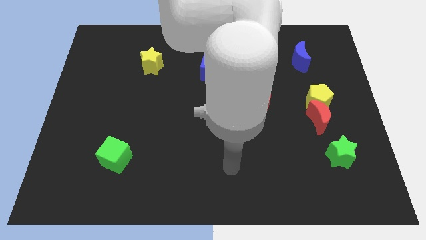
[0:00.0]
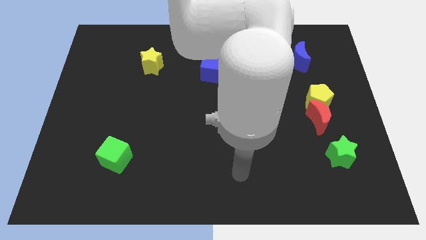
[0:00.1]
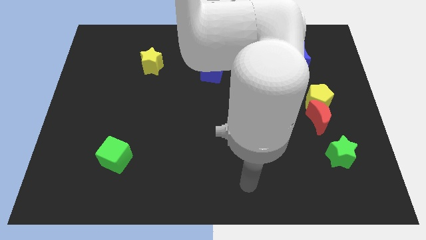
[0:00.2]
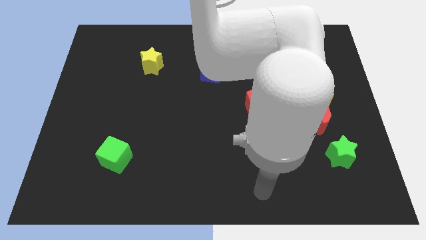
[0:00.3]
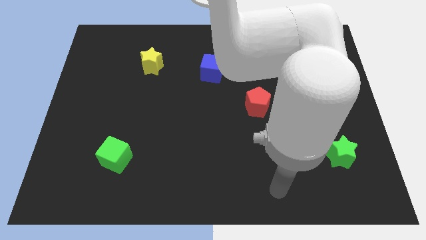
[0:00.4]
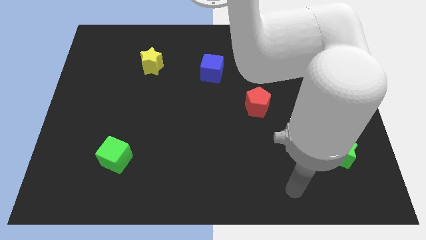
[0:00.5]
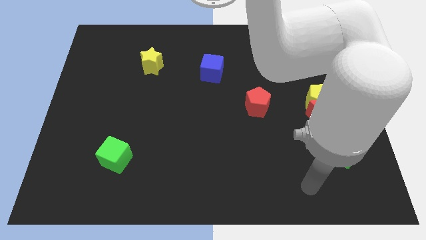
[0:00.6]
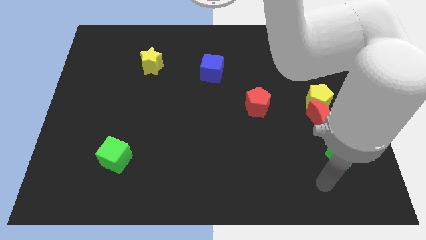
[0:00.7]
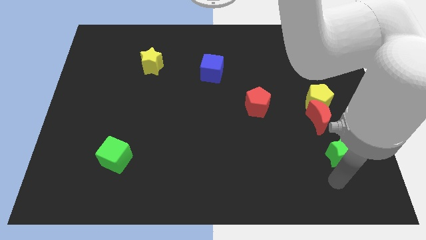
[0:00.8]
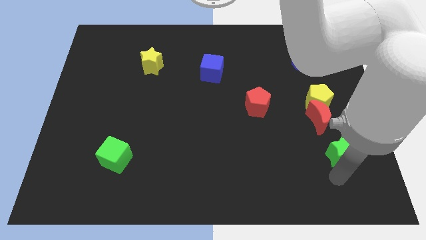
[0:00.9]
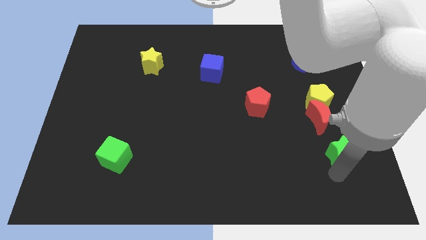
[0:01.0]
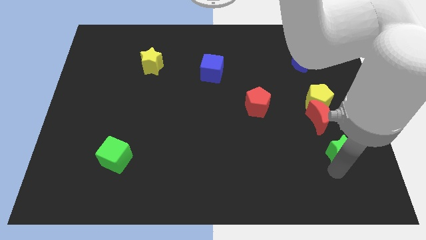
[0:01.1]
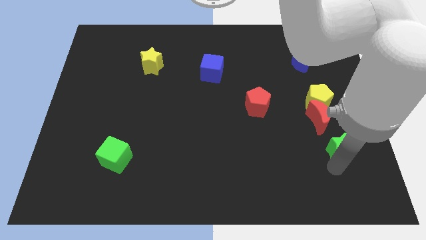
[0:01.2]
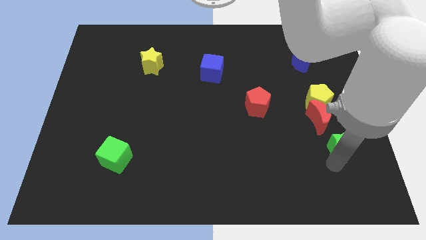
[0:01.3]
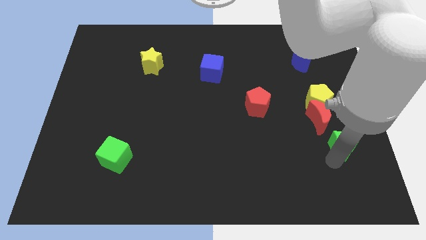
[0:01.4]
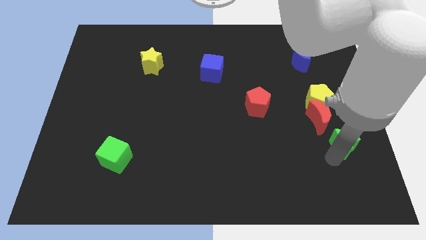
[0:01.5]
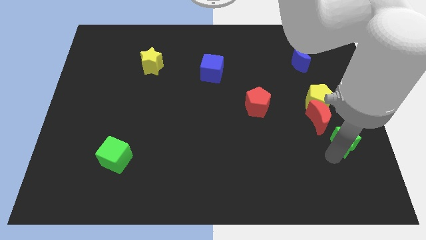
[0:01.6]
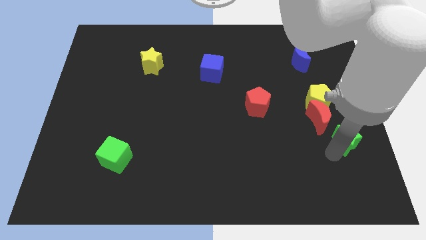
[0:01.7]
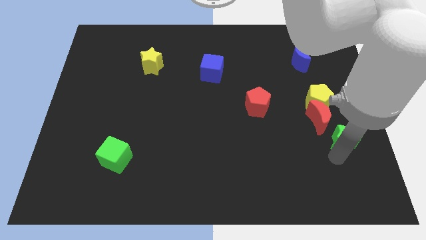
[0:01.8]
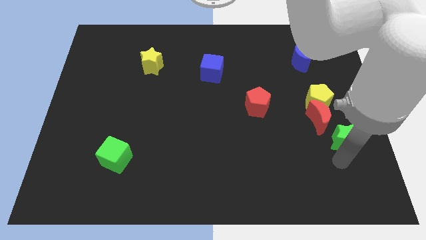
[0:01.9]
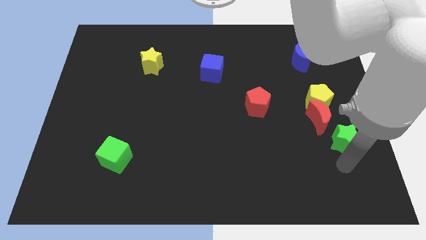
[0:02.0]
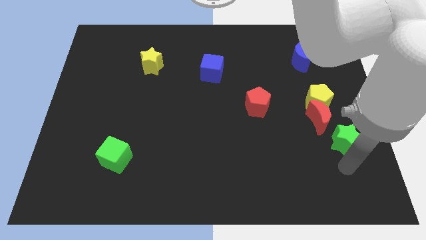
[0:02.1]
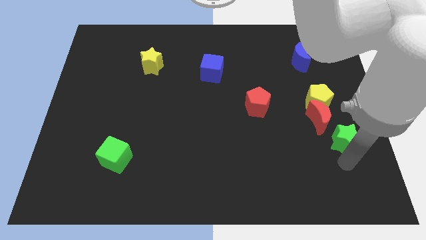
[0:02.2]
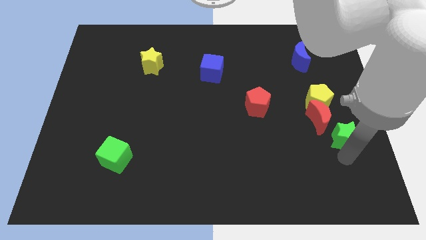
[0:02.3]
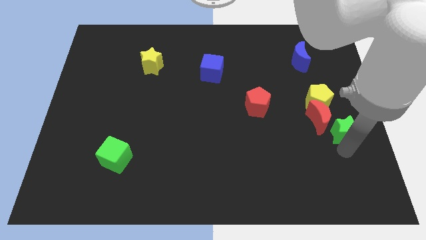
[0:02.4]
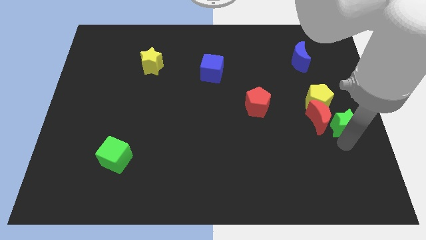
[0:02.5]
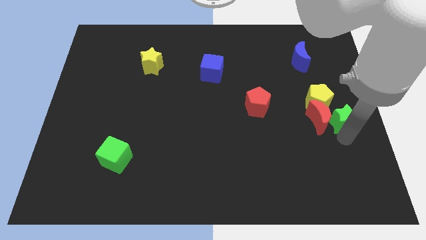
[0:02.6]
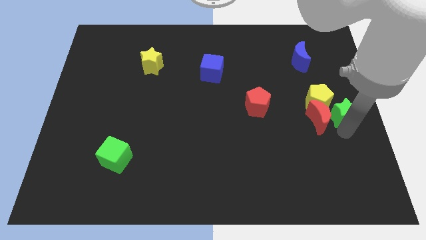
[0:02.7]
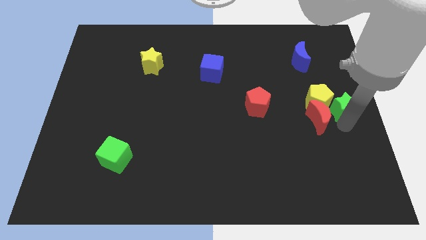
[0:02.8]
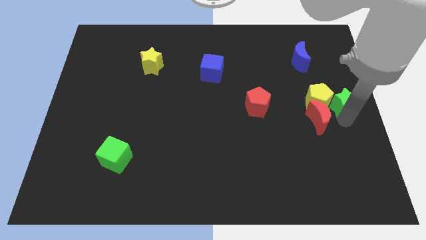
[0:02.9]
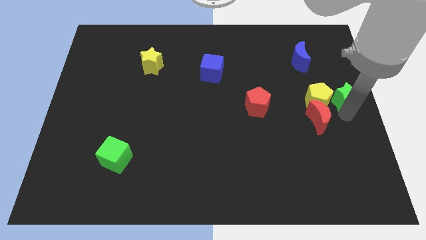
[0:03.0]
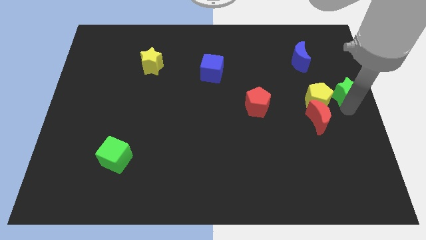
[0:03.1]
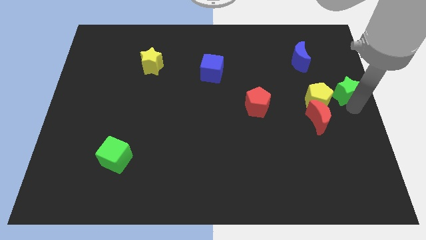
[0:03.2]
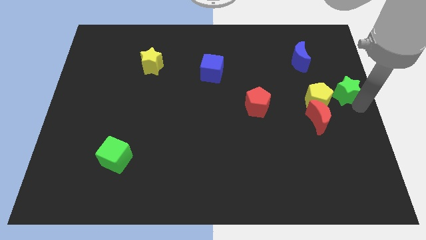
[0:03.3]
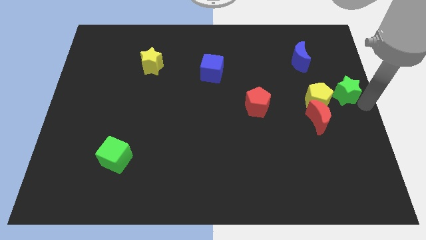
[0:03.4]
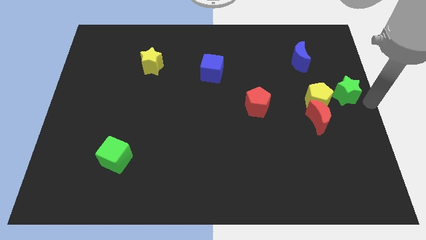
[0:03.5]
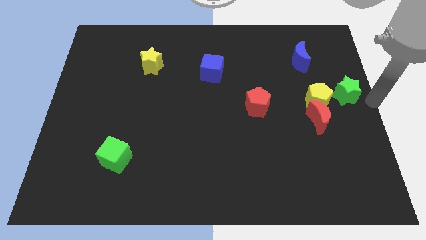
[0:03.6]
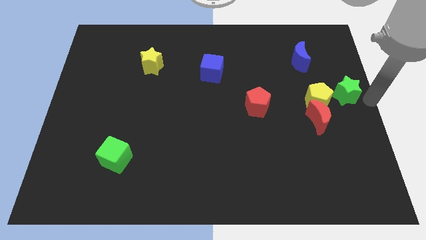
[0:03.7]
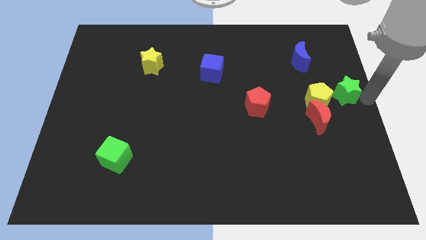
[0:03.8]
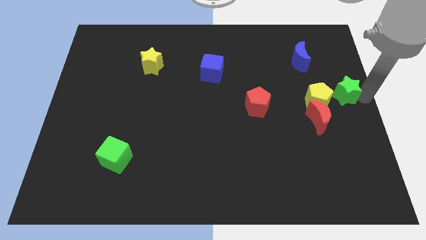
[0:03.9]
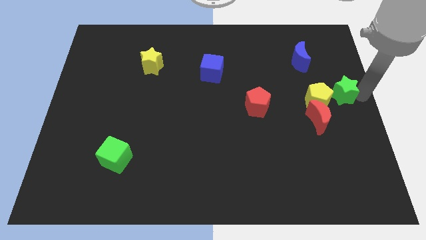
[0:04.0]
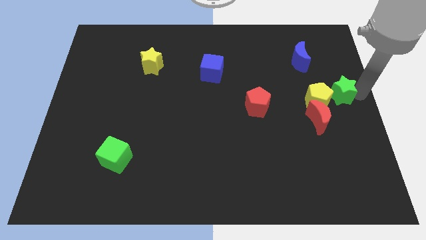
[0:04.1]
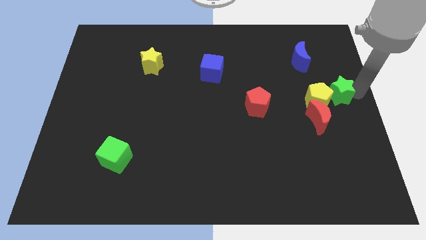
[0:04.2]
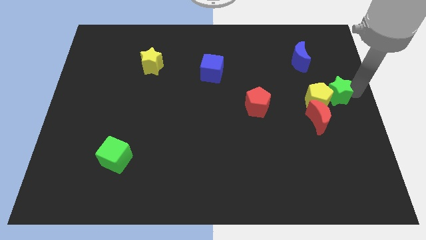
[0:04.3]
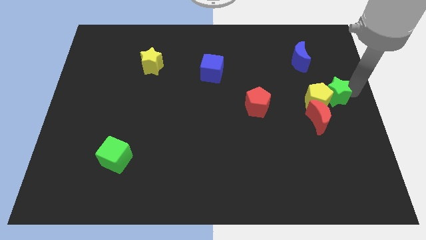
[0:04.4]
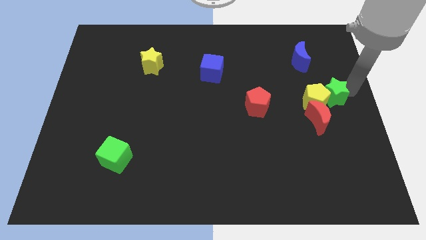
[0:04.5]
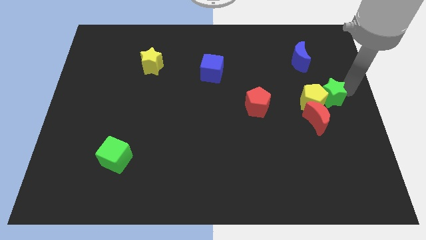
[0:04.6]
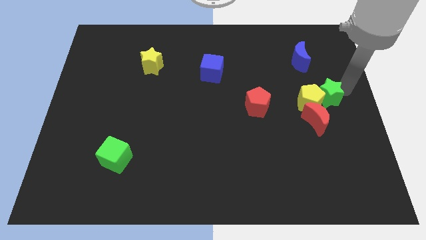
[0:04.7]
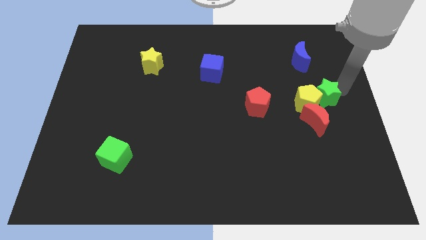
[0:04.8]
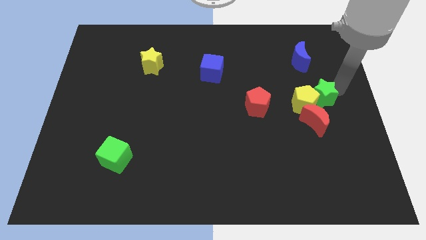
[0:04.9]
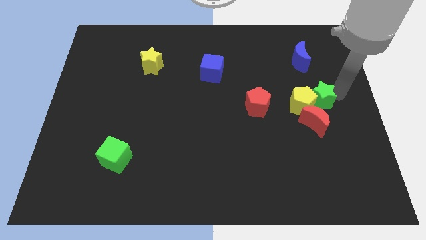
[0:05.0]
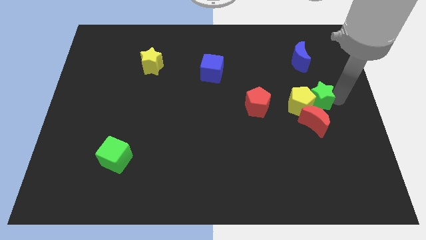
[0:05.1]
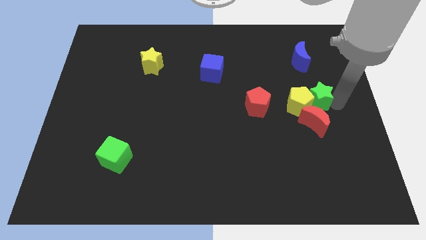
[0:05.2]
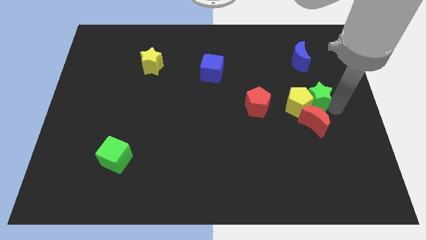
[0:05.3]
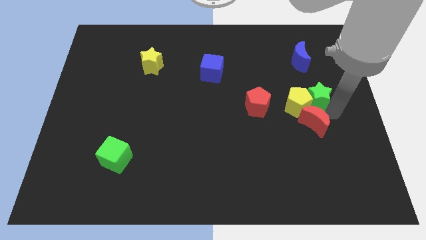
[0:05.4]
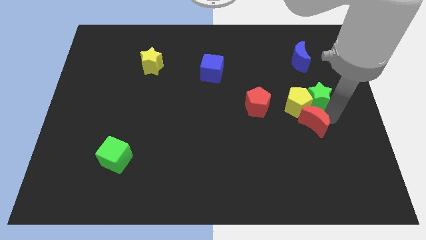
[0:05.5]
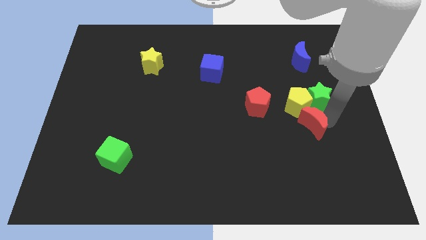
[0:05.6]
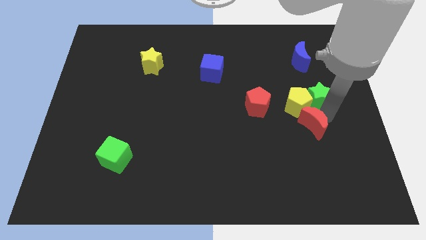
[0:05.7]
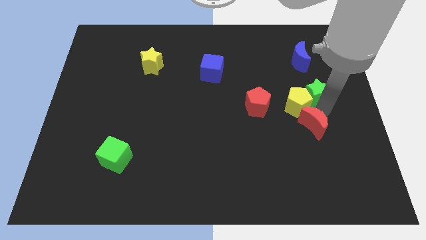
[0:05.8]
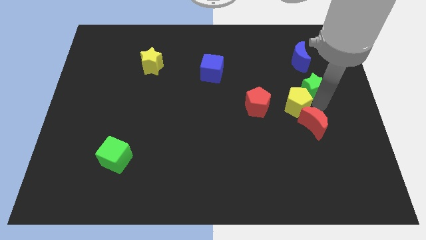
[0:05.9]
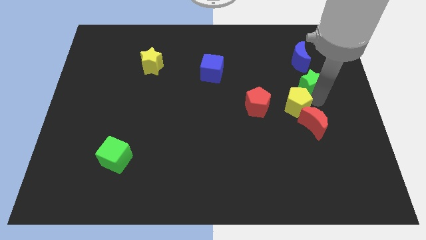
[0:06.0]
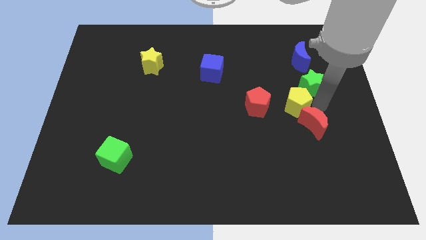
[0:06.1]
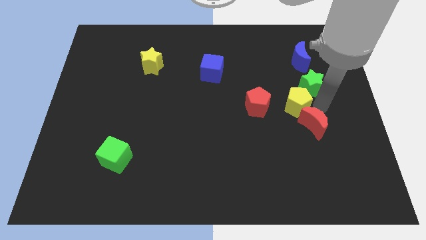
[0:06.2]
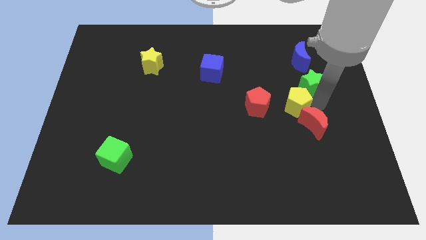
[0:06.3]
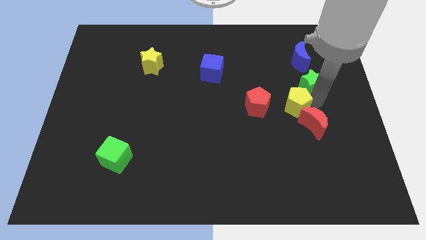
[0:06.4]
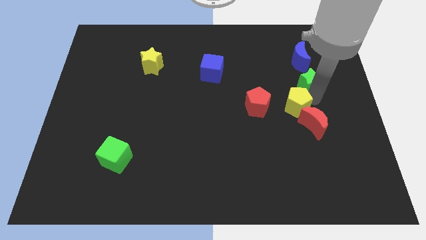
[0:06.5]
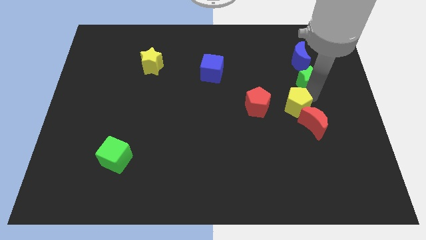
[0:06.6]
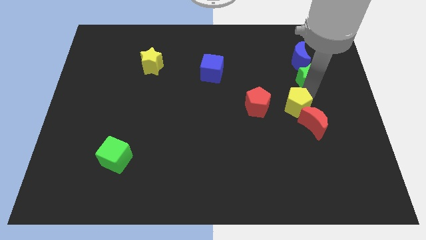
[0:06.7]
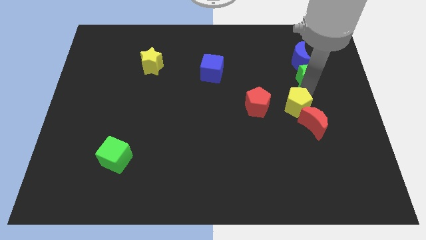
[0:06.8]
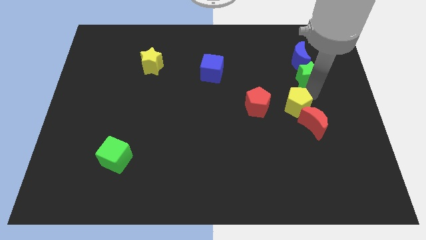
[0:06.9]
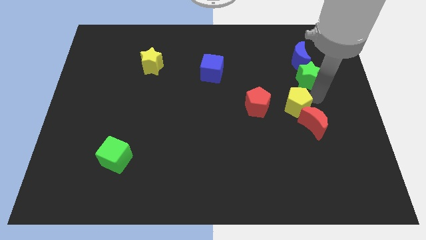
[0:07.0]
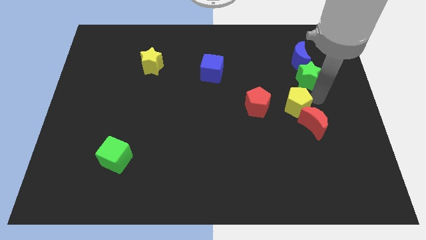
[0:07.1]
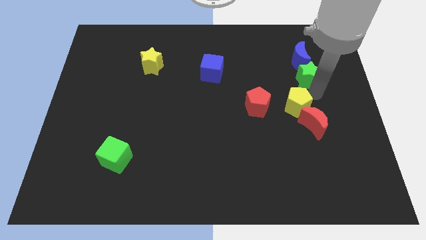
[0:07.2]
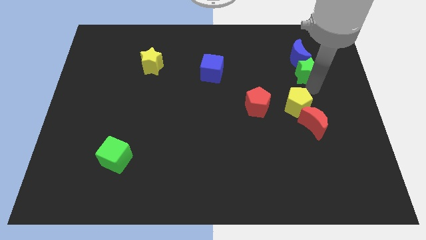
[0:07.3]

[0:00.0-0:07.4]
slide the green star close to the blue moon

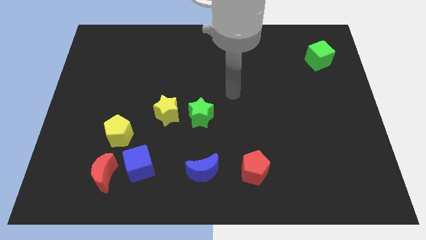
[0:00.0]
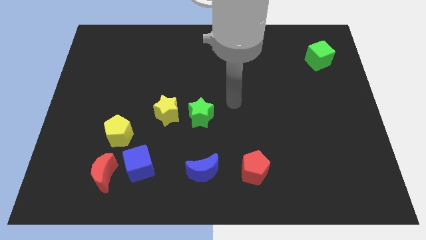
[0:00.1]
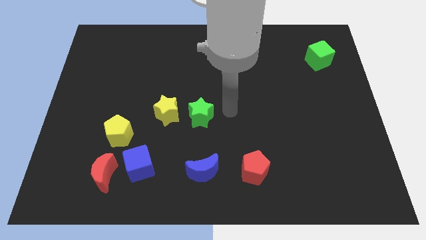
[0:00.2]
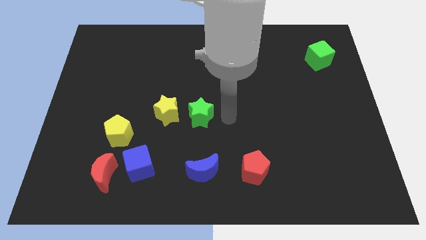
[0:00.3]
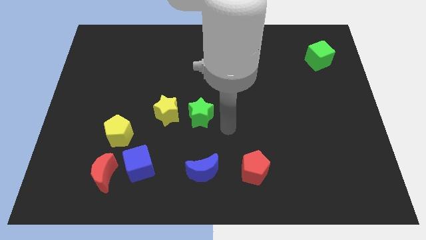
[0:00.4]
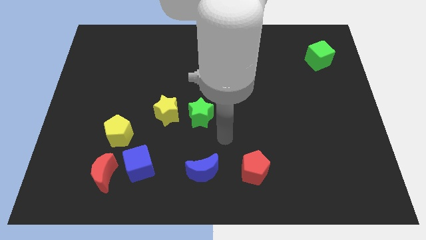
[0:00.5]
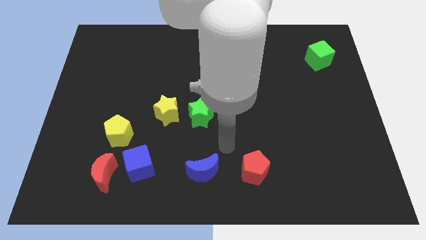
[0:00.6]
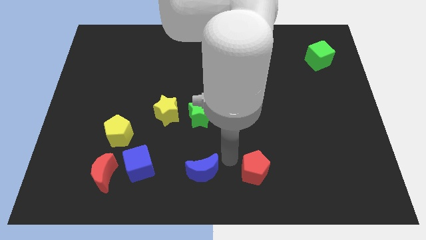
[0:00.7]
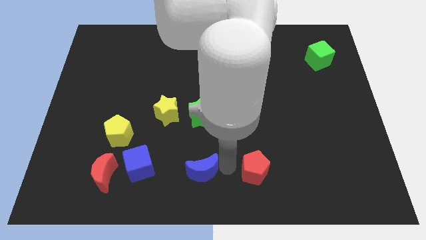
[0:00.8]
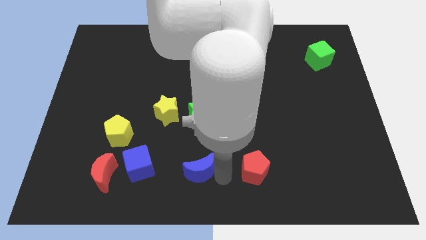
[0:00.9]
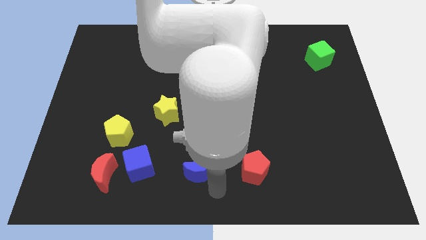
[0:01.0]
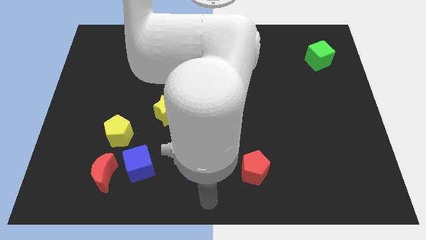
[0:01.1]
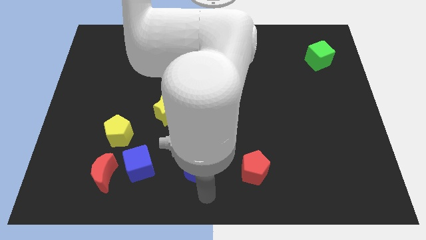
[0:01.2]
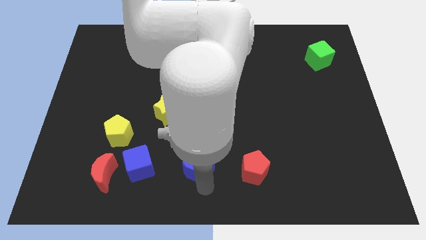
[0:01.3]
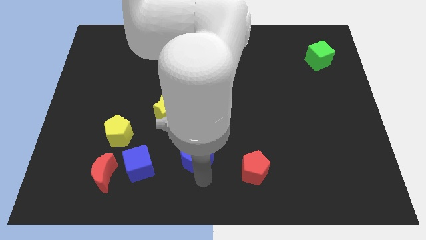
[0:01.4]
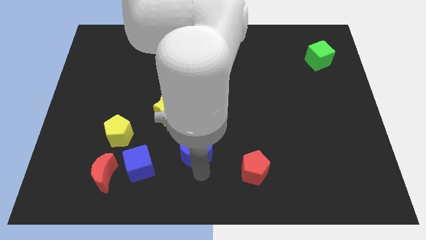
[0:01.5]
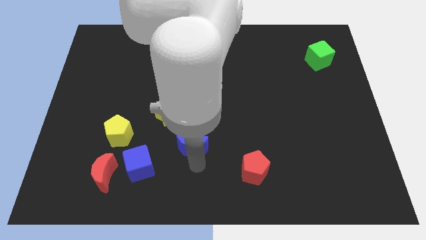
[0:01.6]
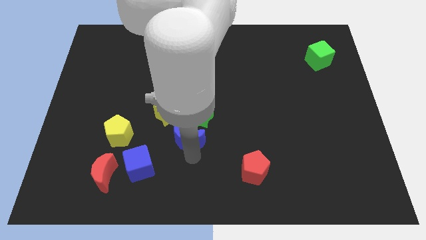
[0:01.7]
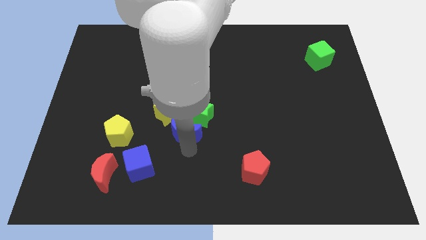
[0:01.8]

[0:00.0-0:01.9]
push the blue moon next to the green star
